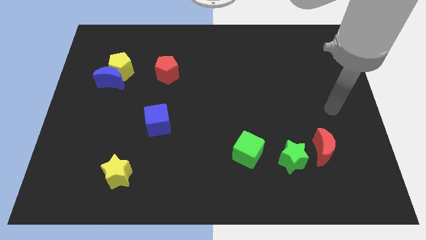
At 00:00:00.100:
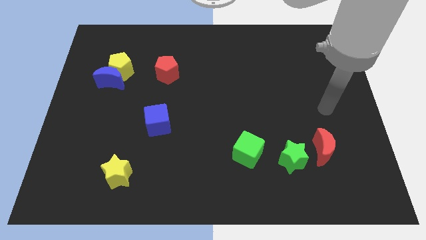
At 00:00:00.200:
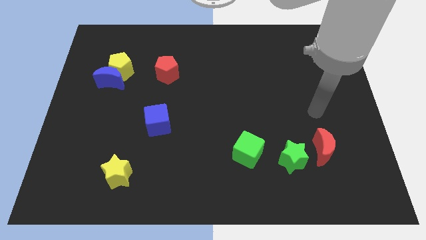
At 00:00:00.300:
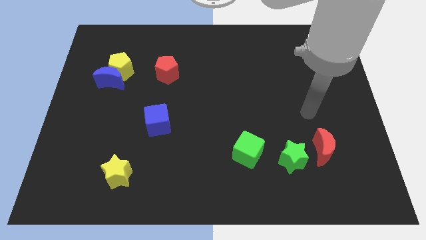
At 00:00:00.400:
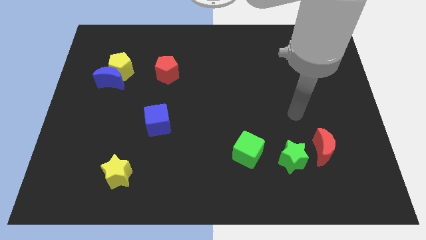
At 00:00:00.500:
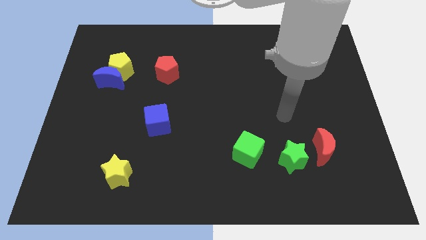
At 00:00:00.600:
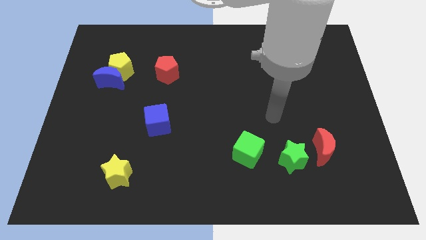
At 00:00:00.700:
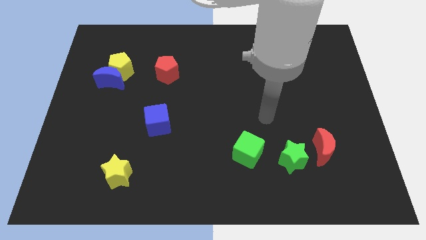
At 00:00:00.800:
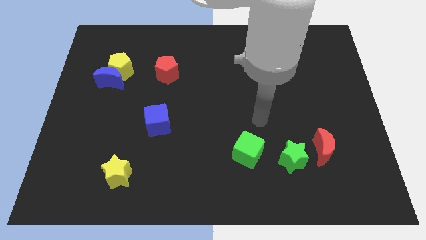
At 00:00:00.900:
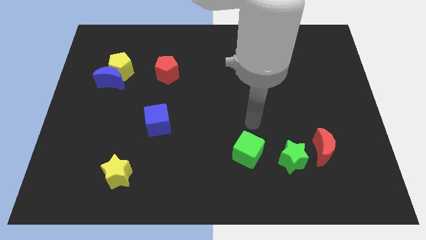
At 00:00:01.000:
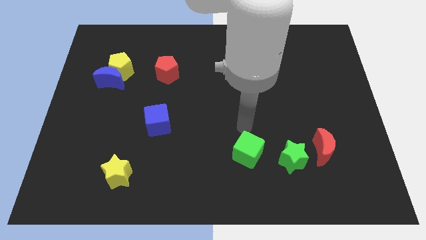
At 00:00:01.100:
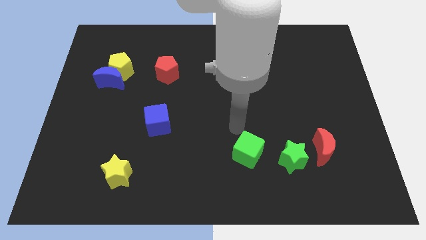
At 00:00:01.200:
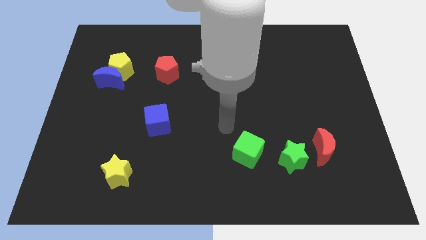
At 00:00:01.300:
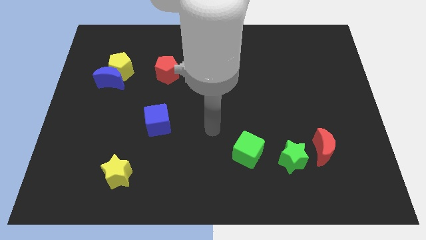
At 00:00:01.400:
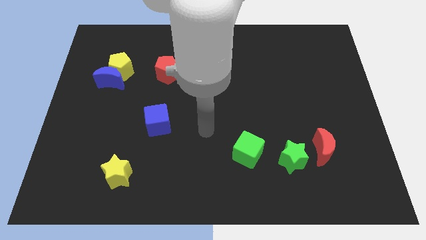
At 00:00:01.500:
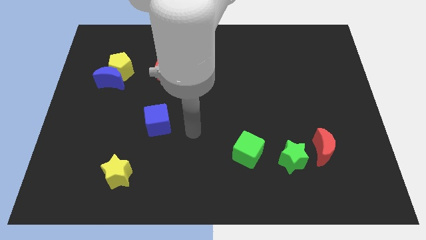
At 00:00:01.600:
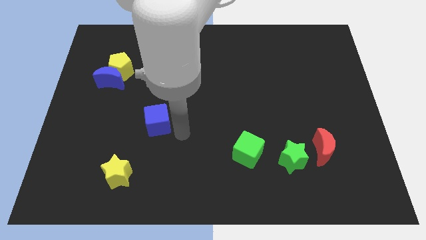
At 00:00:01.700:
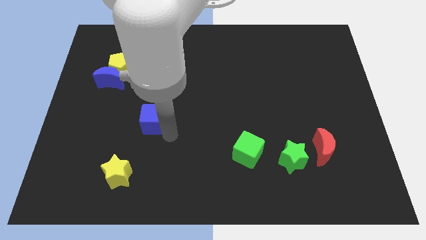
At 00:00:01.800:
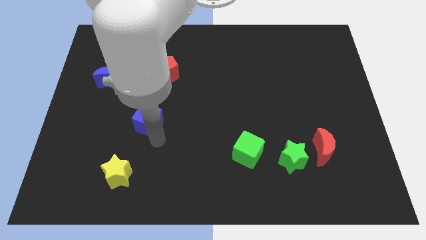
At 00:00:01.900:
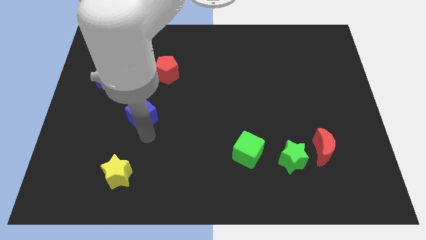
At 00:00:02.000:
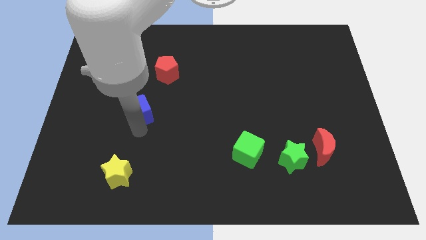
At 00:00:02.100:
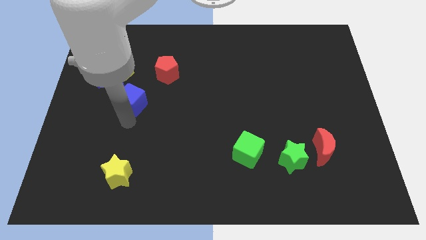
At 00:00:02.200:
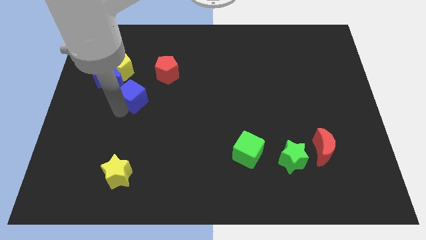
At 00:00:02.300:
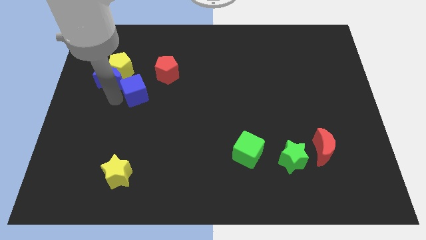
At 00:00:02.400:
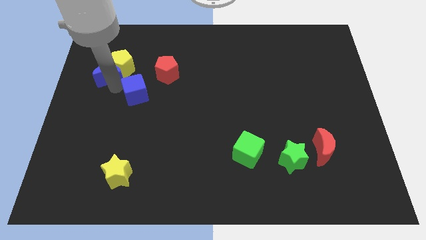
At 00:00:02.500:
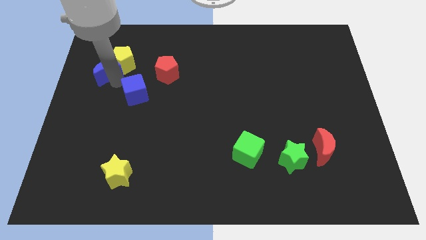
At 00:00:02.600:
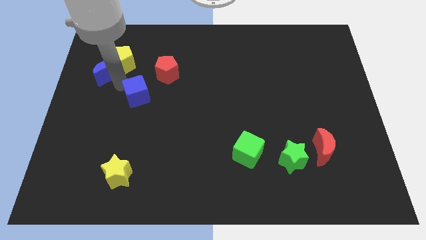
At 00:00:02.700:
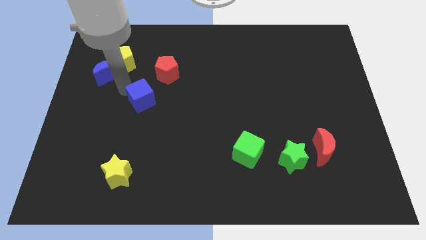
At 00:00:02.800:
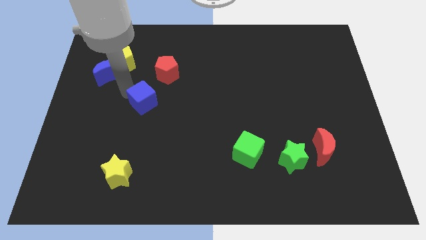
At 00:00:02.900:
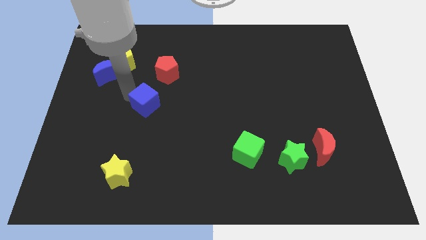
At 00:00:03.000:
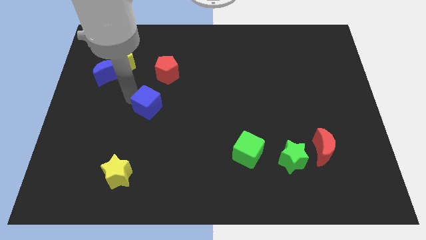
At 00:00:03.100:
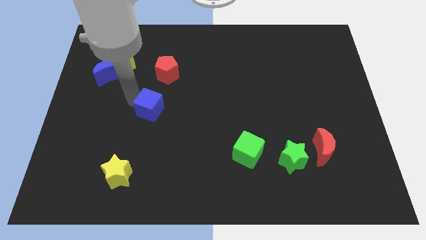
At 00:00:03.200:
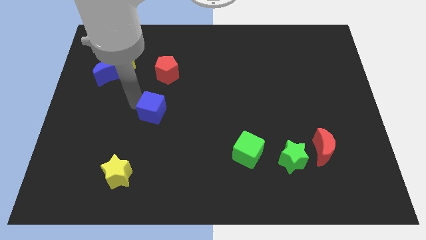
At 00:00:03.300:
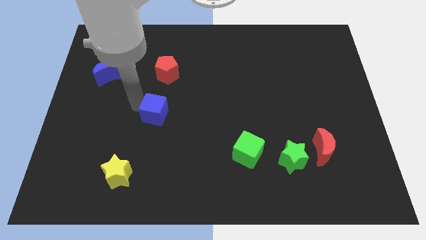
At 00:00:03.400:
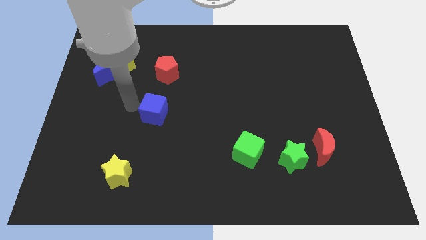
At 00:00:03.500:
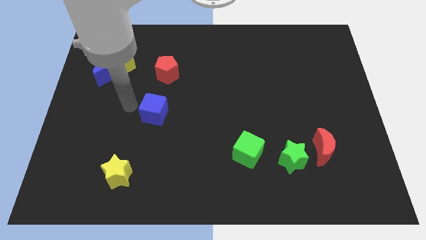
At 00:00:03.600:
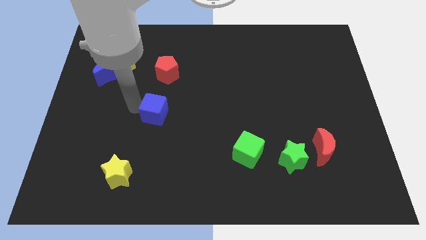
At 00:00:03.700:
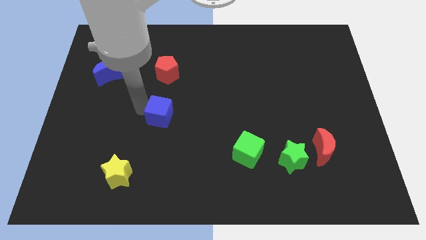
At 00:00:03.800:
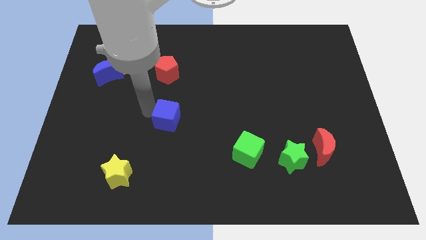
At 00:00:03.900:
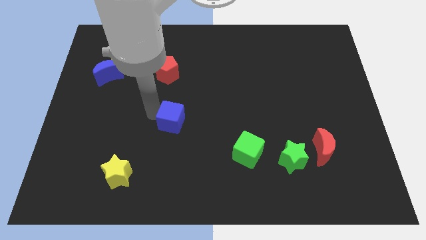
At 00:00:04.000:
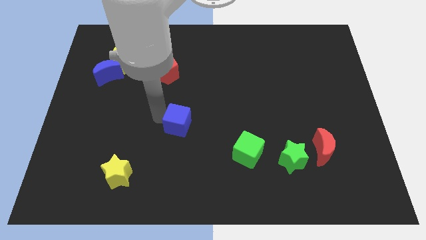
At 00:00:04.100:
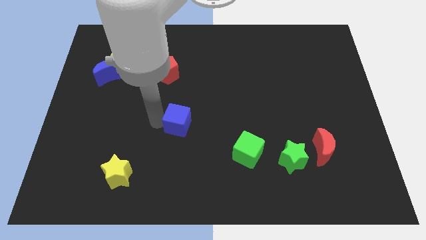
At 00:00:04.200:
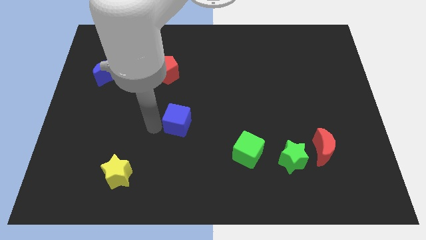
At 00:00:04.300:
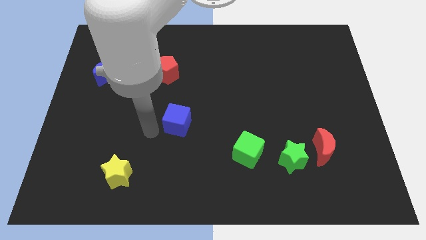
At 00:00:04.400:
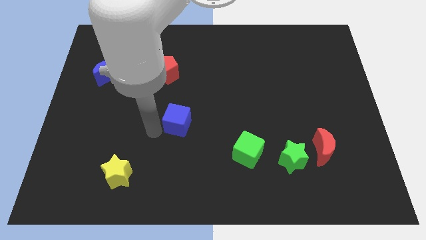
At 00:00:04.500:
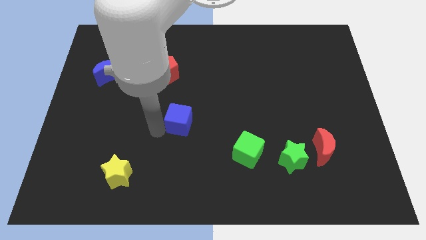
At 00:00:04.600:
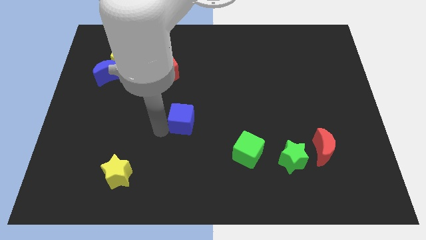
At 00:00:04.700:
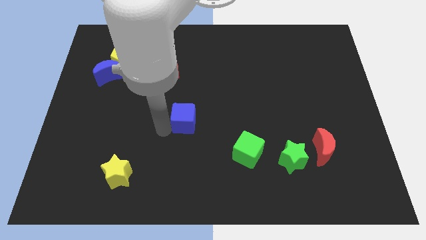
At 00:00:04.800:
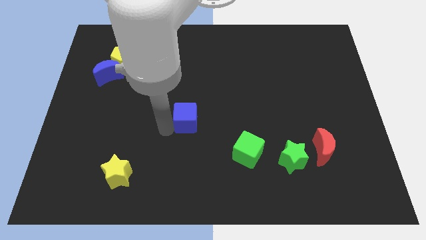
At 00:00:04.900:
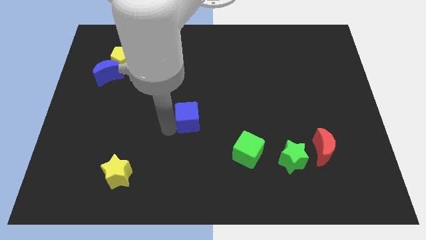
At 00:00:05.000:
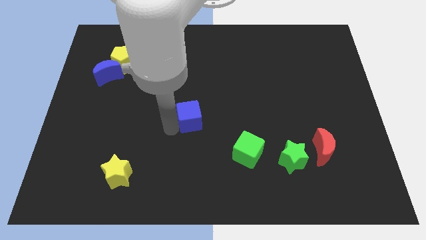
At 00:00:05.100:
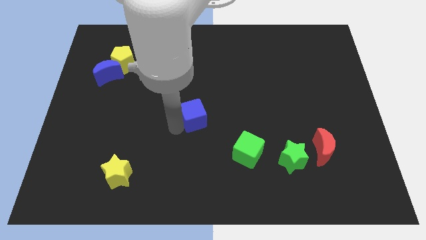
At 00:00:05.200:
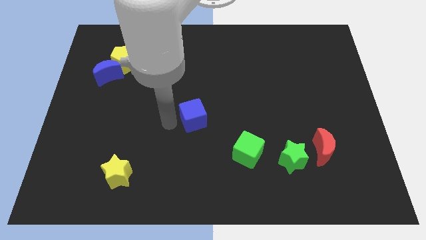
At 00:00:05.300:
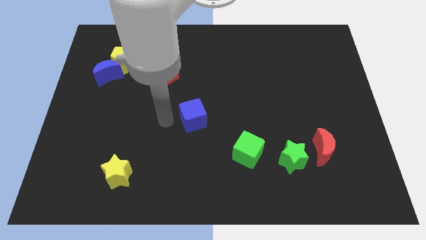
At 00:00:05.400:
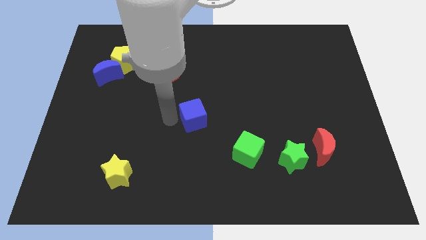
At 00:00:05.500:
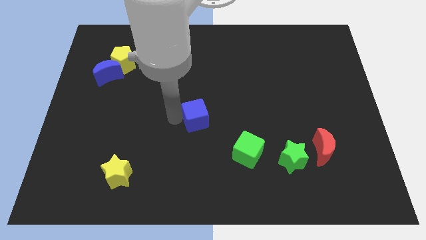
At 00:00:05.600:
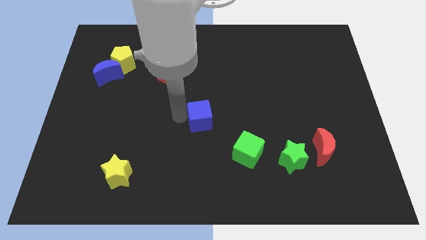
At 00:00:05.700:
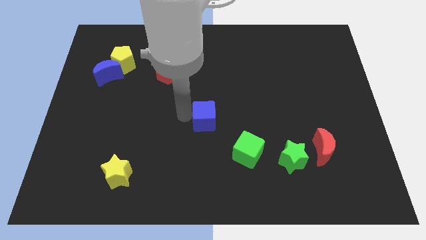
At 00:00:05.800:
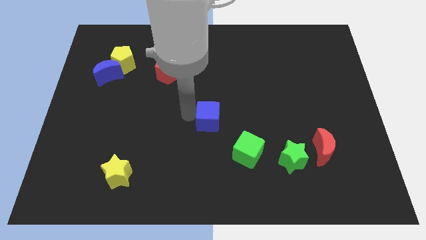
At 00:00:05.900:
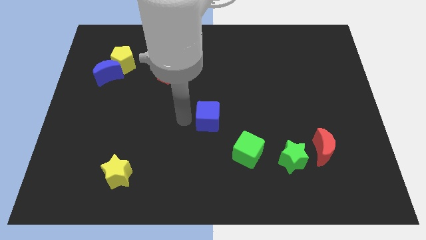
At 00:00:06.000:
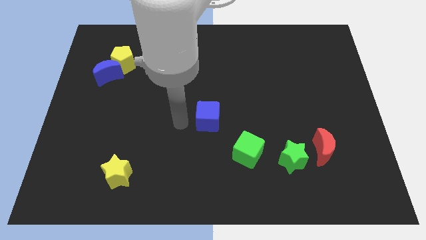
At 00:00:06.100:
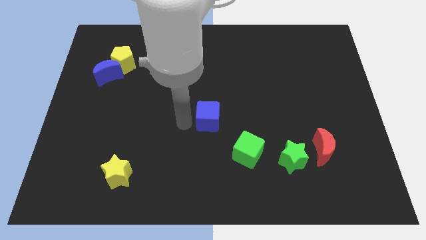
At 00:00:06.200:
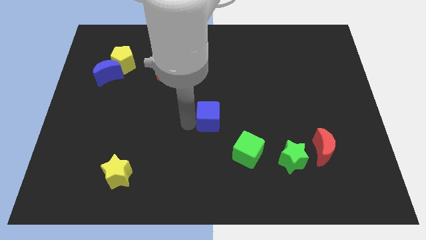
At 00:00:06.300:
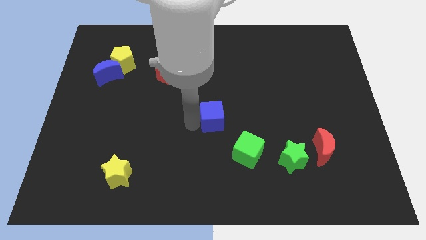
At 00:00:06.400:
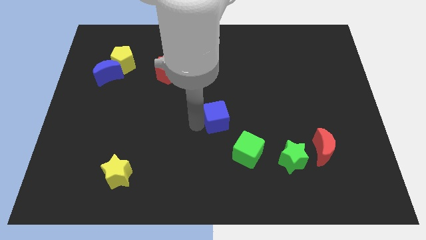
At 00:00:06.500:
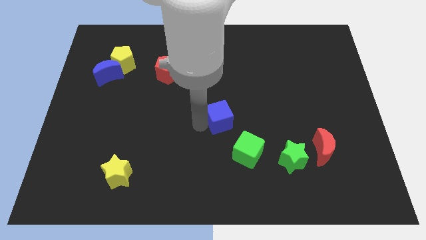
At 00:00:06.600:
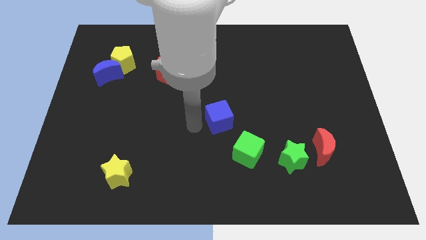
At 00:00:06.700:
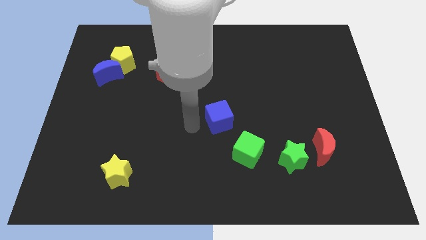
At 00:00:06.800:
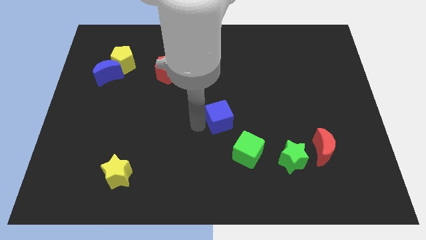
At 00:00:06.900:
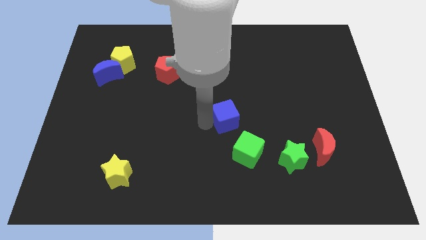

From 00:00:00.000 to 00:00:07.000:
move the blue cube to the top of the green cube

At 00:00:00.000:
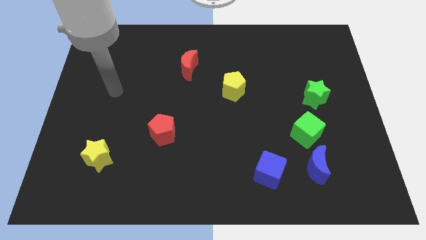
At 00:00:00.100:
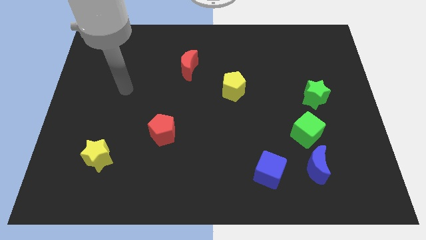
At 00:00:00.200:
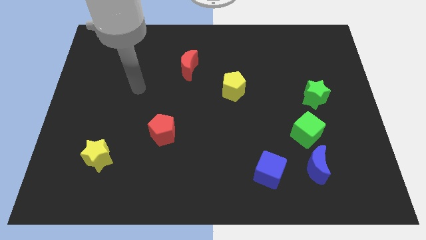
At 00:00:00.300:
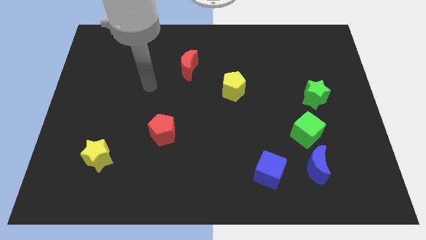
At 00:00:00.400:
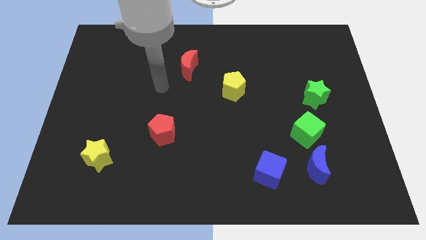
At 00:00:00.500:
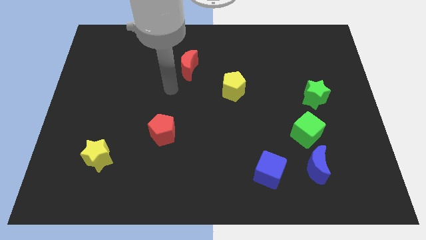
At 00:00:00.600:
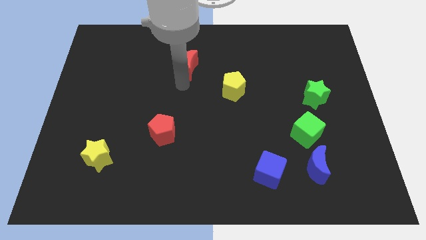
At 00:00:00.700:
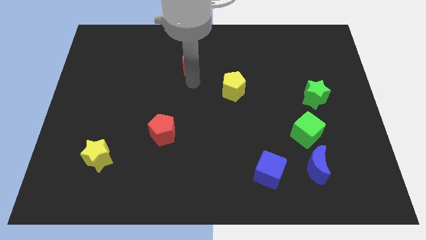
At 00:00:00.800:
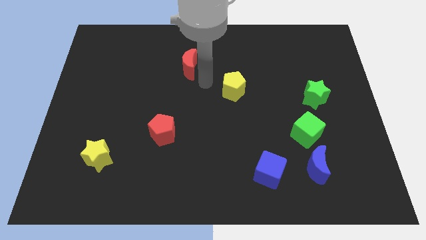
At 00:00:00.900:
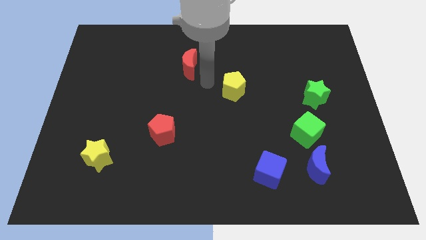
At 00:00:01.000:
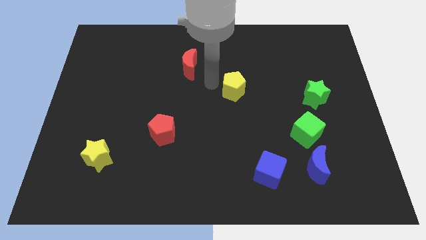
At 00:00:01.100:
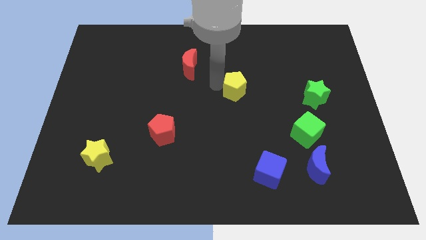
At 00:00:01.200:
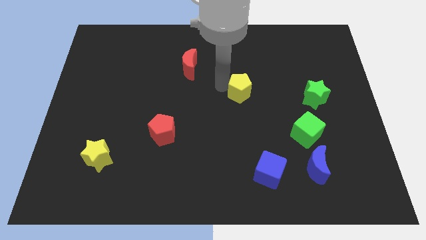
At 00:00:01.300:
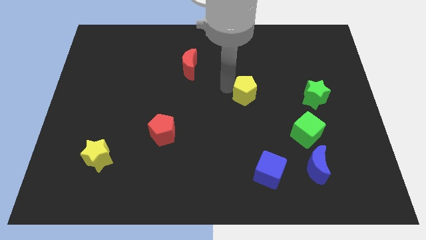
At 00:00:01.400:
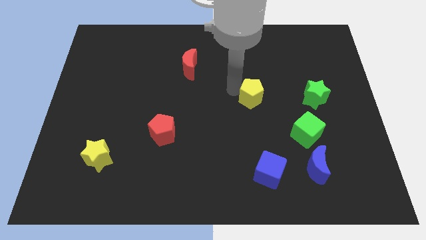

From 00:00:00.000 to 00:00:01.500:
push the yellow pentagon to the left of the green star
